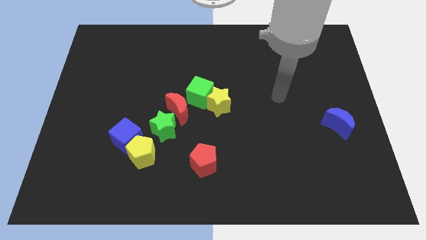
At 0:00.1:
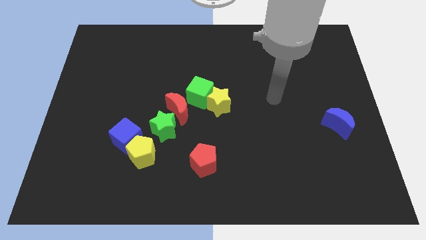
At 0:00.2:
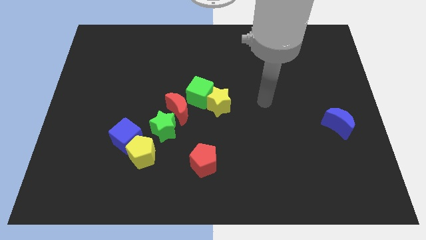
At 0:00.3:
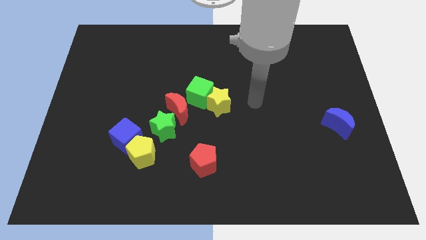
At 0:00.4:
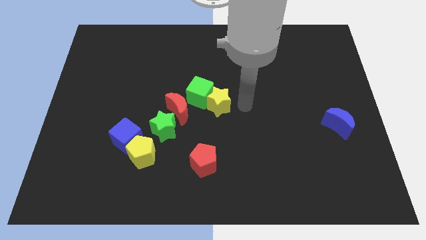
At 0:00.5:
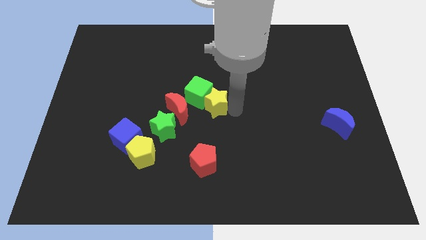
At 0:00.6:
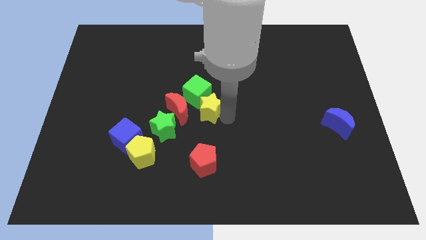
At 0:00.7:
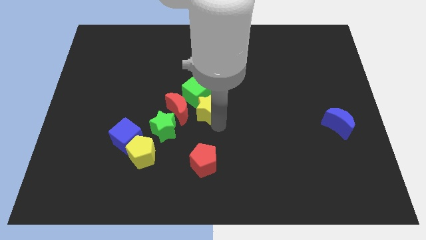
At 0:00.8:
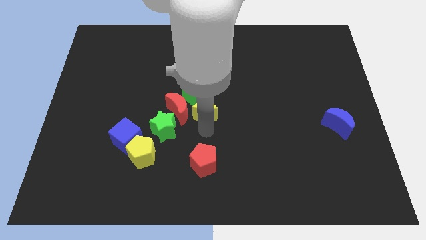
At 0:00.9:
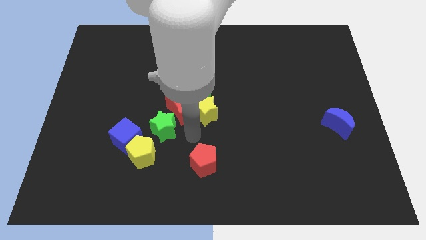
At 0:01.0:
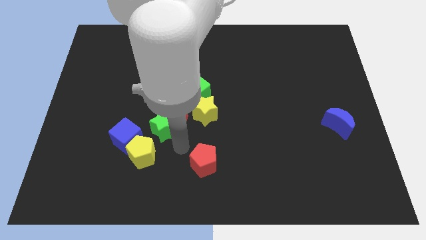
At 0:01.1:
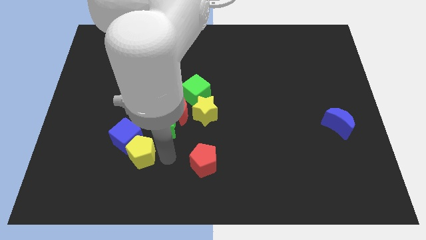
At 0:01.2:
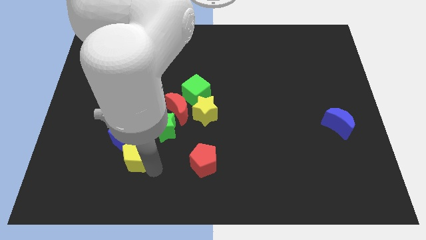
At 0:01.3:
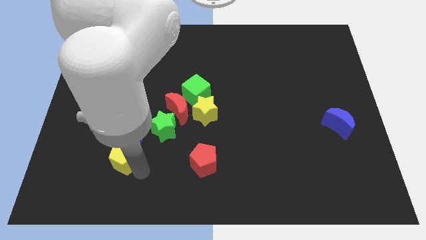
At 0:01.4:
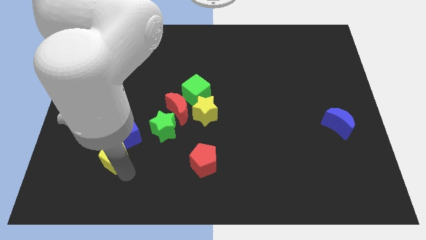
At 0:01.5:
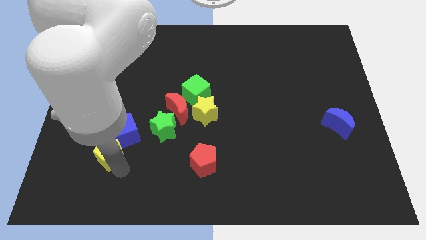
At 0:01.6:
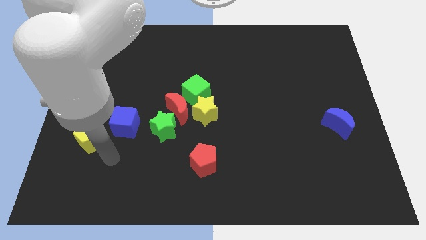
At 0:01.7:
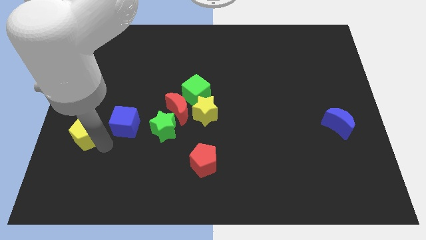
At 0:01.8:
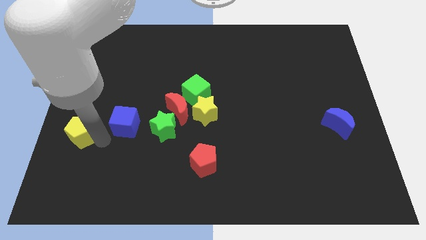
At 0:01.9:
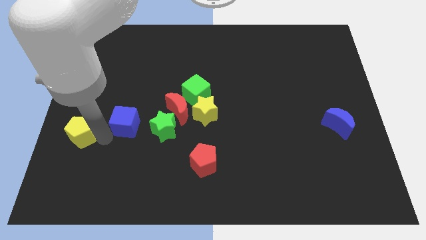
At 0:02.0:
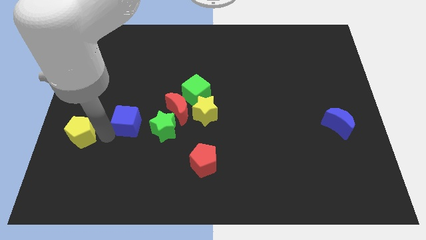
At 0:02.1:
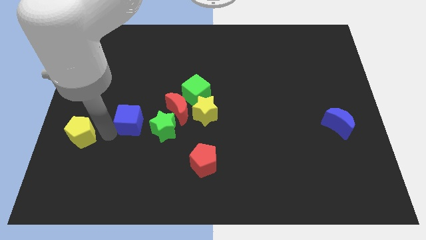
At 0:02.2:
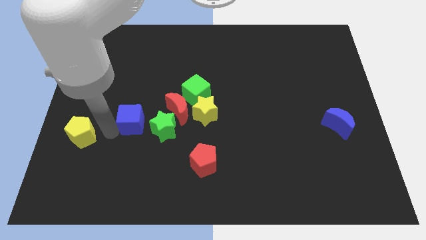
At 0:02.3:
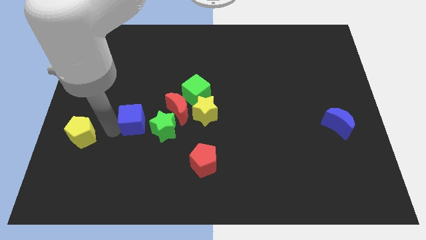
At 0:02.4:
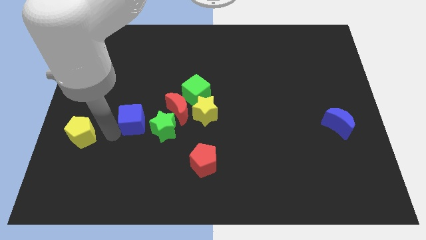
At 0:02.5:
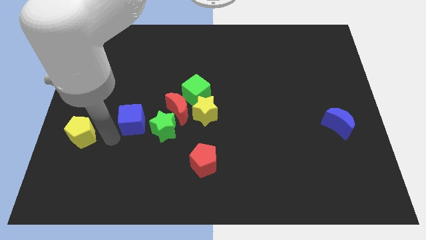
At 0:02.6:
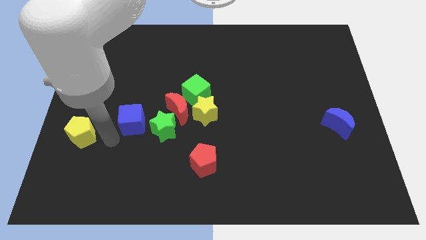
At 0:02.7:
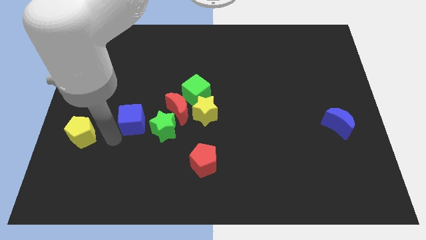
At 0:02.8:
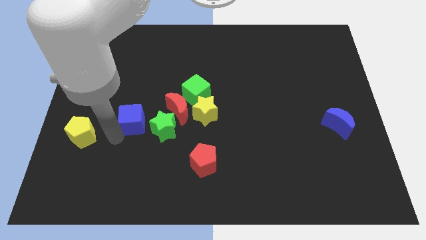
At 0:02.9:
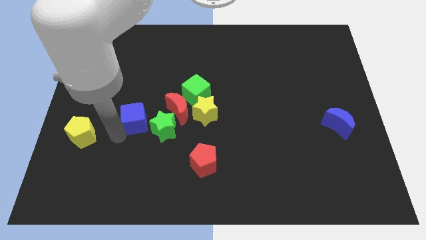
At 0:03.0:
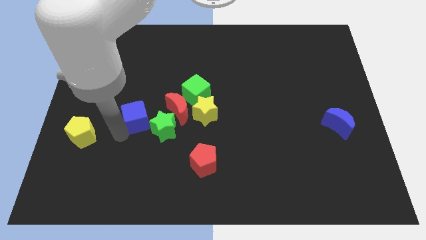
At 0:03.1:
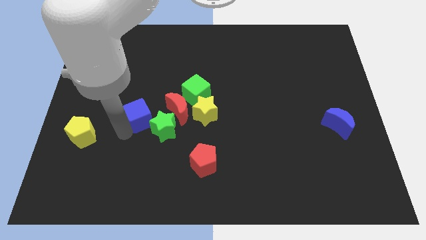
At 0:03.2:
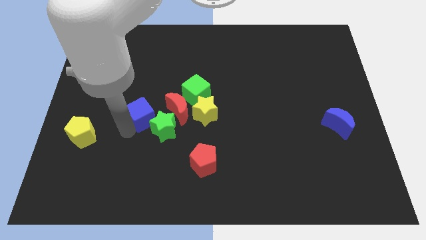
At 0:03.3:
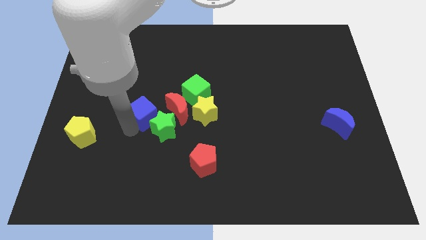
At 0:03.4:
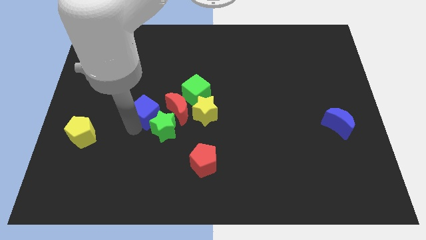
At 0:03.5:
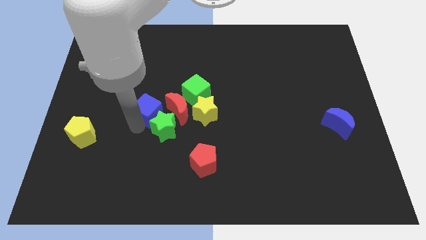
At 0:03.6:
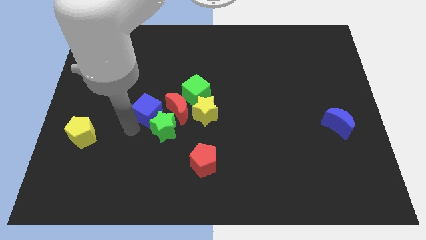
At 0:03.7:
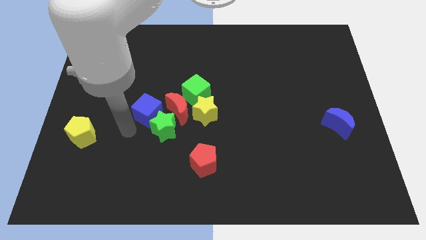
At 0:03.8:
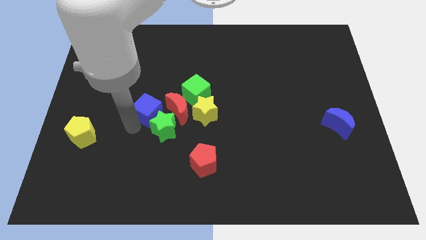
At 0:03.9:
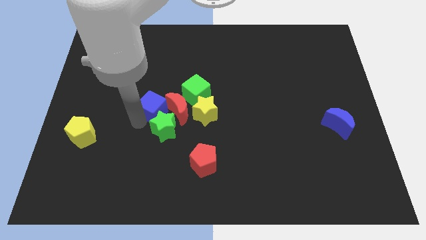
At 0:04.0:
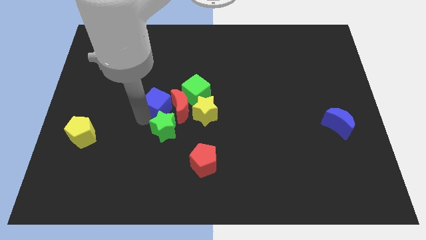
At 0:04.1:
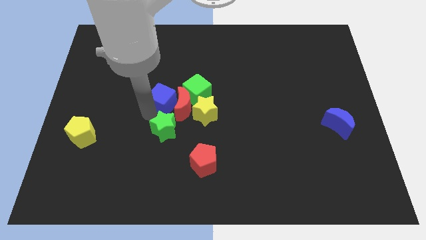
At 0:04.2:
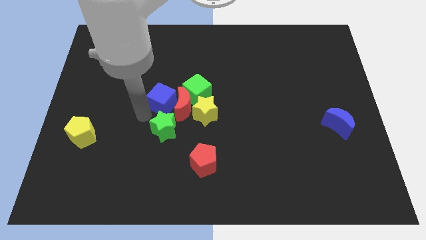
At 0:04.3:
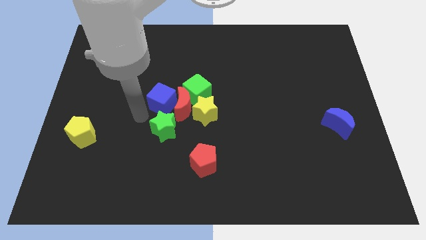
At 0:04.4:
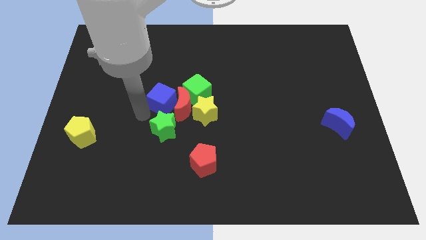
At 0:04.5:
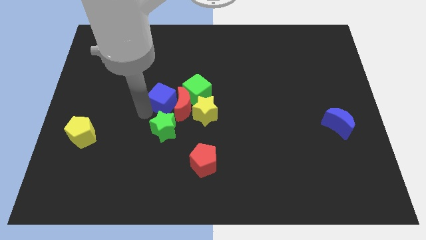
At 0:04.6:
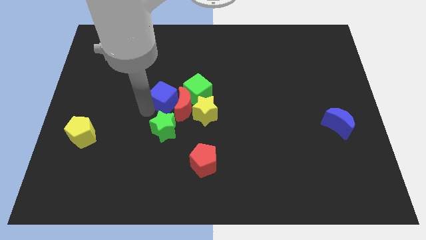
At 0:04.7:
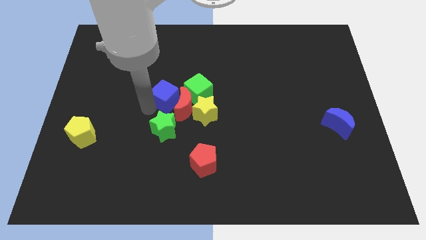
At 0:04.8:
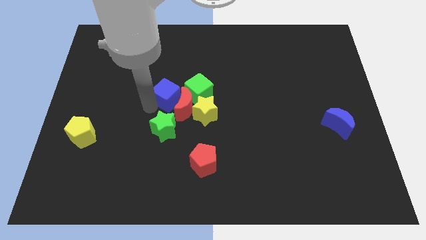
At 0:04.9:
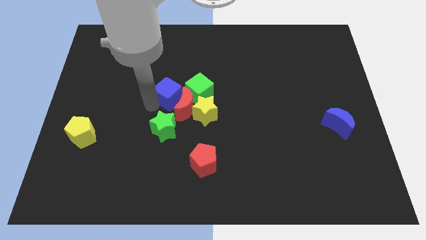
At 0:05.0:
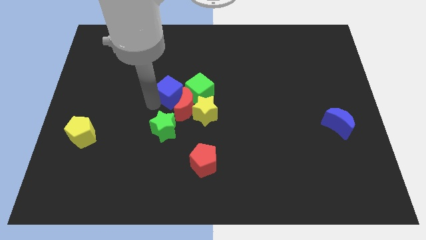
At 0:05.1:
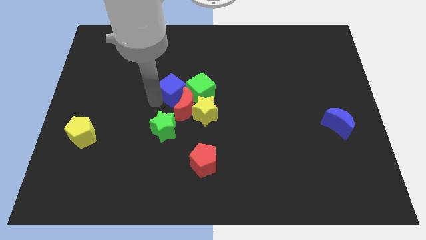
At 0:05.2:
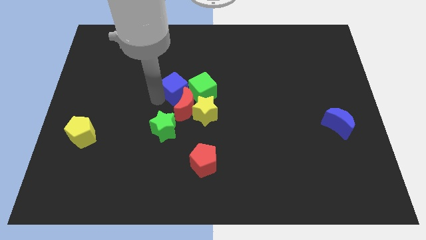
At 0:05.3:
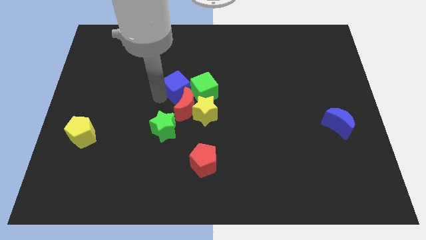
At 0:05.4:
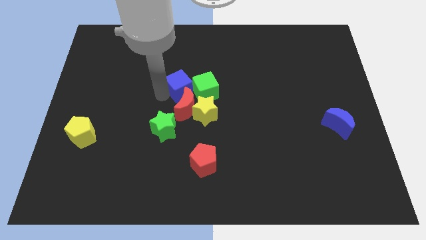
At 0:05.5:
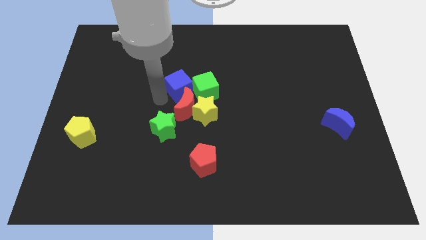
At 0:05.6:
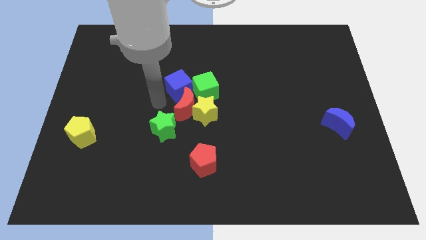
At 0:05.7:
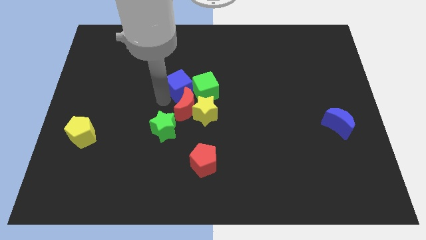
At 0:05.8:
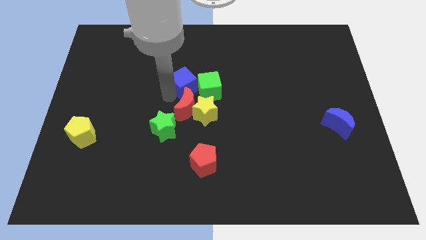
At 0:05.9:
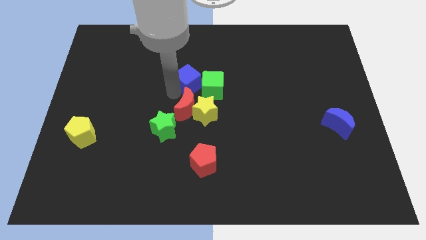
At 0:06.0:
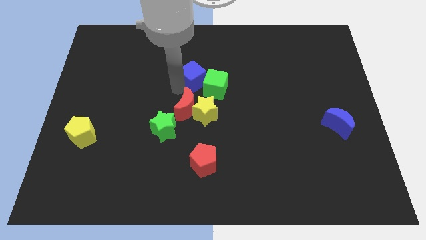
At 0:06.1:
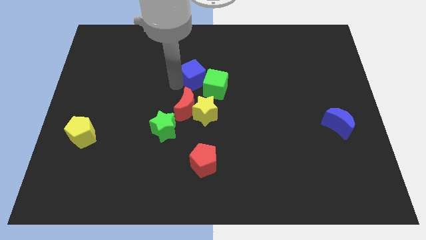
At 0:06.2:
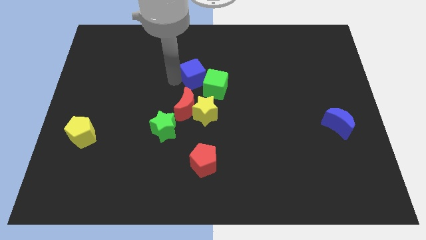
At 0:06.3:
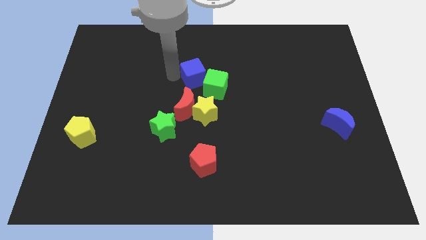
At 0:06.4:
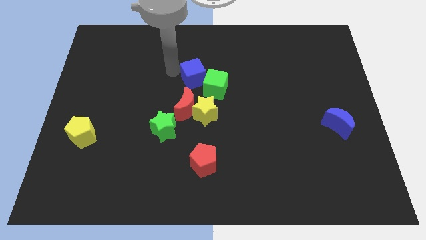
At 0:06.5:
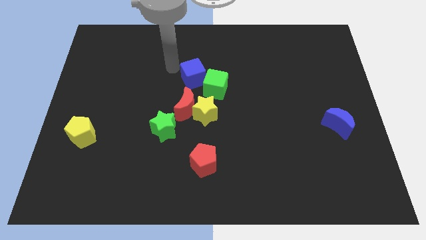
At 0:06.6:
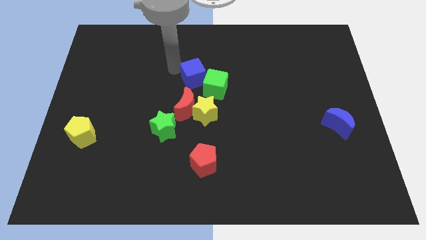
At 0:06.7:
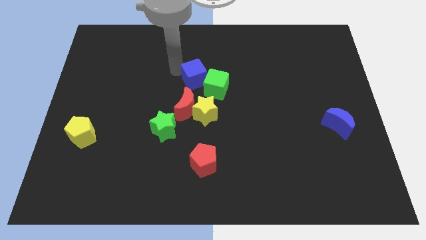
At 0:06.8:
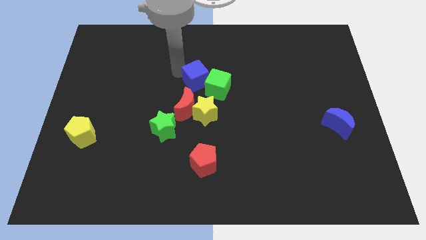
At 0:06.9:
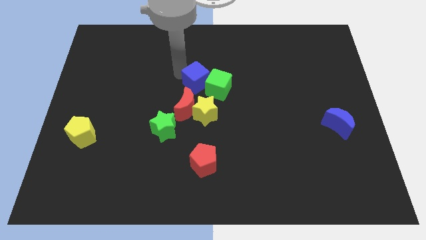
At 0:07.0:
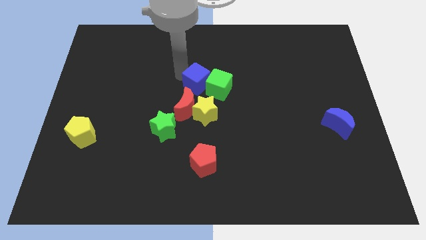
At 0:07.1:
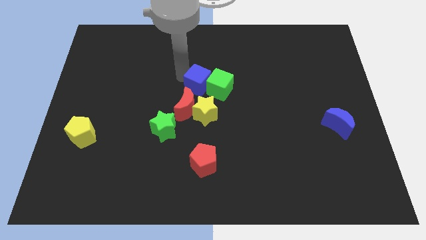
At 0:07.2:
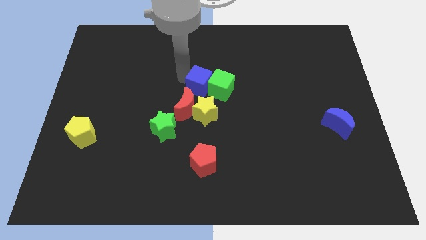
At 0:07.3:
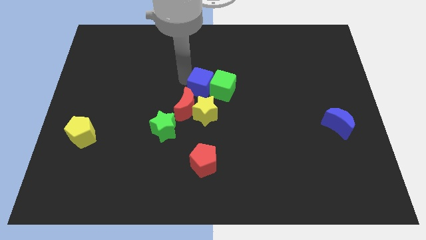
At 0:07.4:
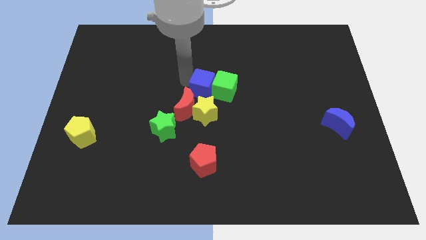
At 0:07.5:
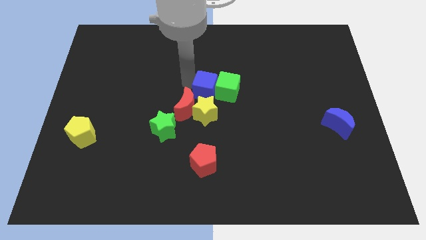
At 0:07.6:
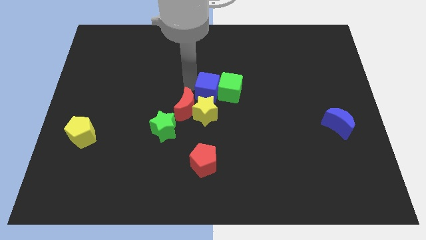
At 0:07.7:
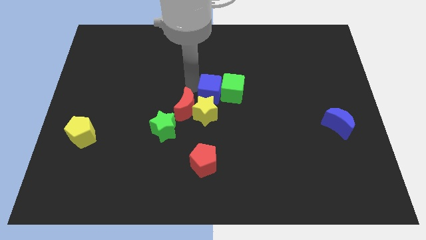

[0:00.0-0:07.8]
put the blue cube to the yellow star
